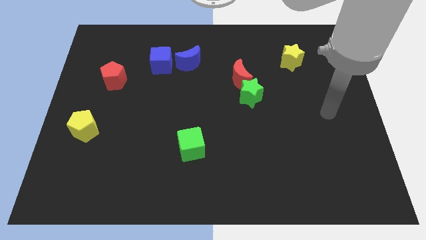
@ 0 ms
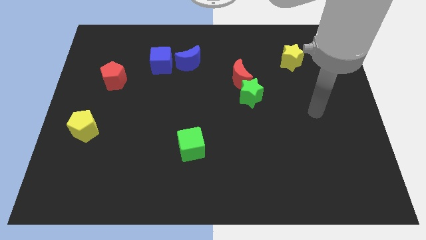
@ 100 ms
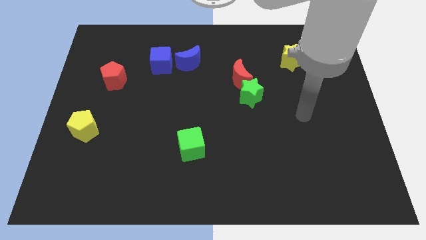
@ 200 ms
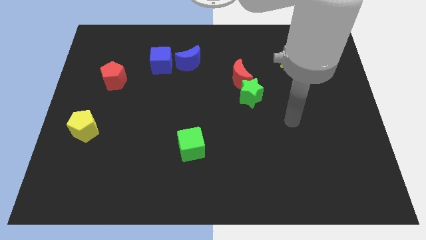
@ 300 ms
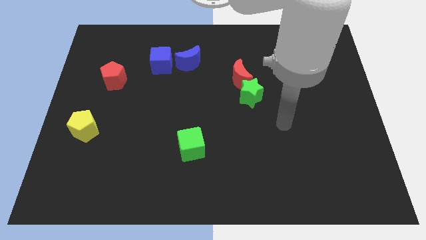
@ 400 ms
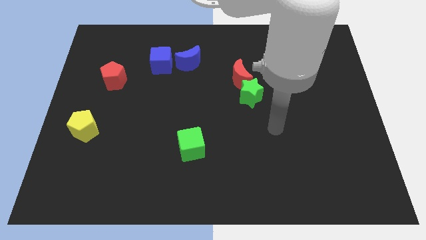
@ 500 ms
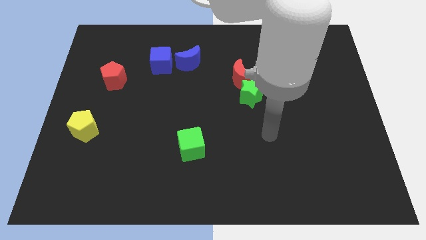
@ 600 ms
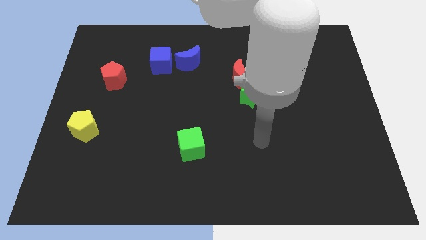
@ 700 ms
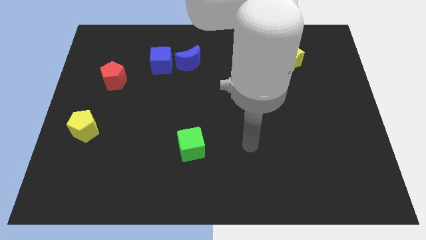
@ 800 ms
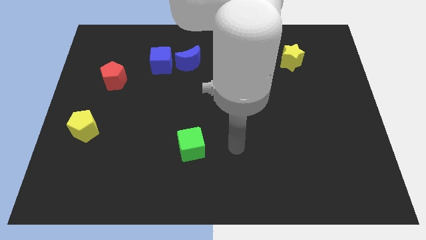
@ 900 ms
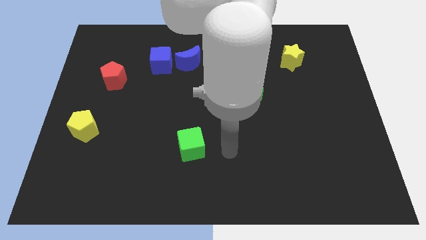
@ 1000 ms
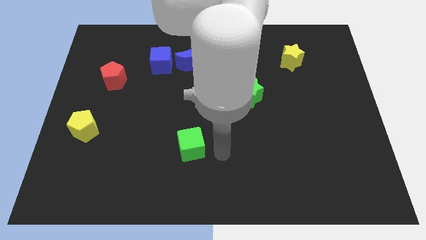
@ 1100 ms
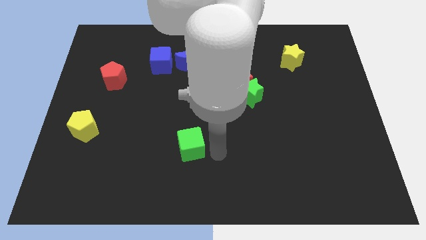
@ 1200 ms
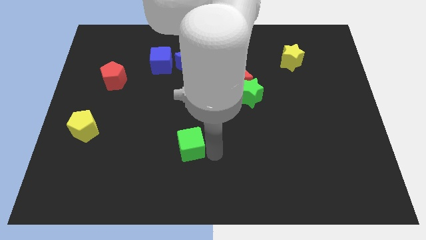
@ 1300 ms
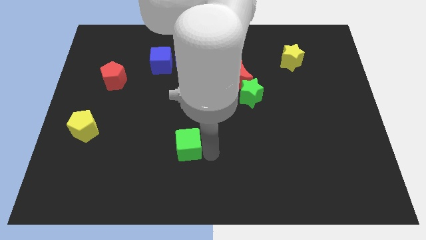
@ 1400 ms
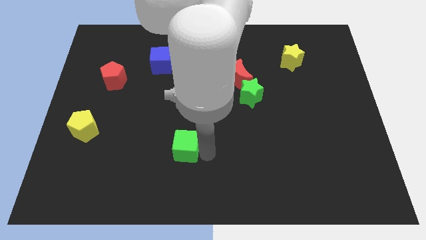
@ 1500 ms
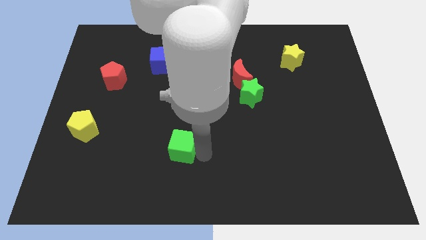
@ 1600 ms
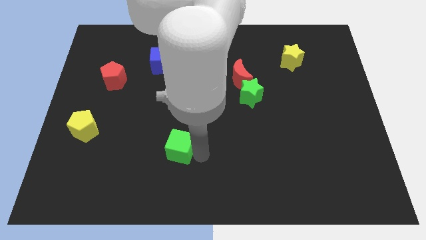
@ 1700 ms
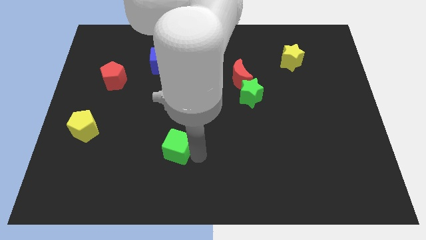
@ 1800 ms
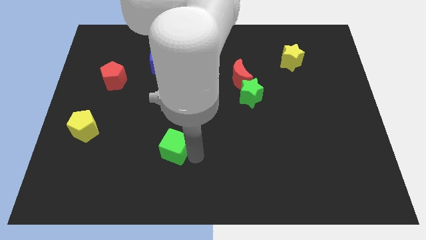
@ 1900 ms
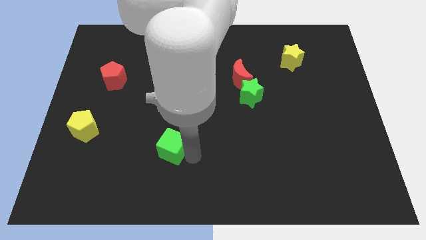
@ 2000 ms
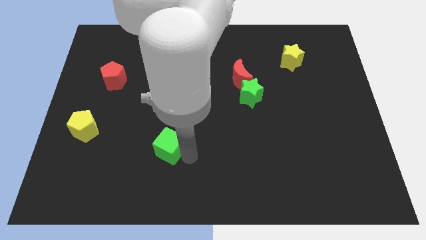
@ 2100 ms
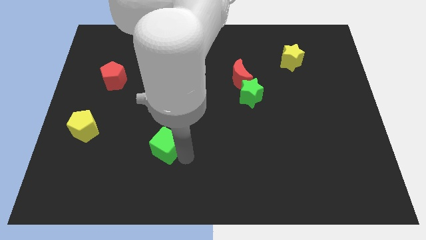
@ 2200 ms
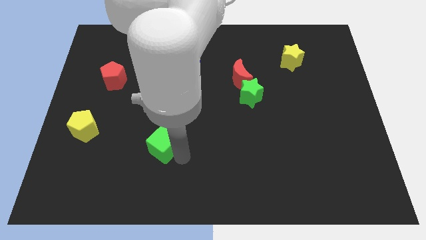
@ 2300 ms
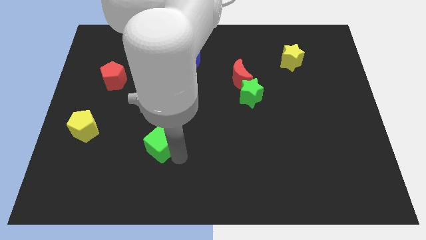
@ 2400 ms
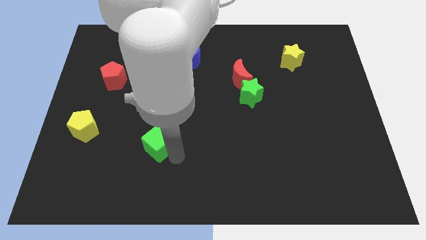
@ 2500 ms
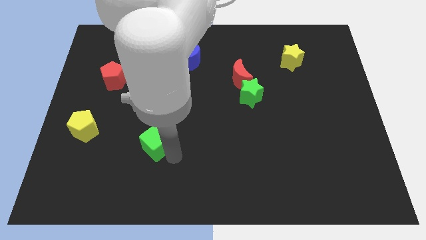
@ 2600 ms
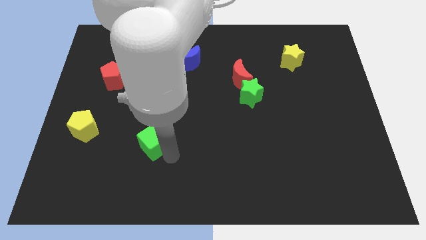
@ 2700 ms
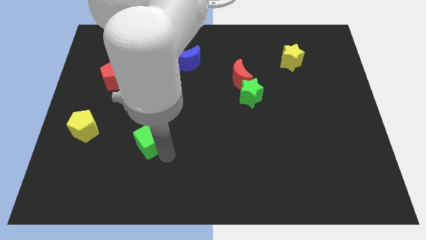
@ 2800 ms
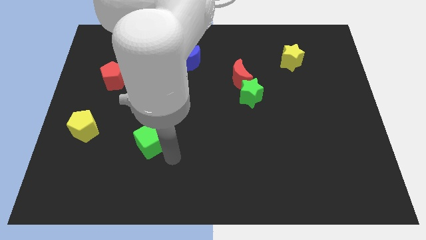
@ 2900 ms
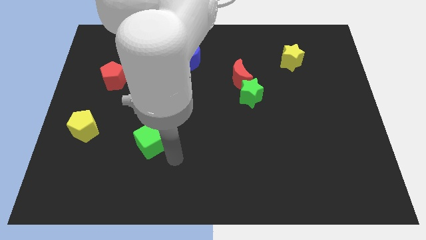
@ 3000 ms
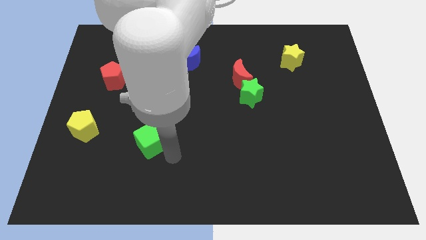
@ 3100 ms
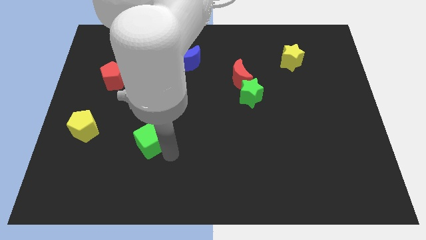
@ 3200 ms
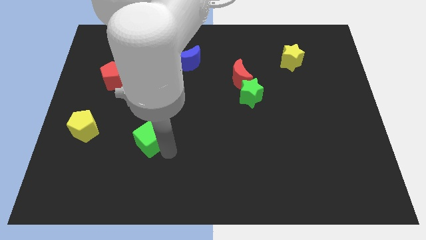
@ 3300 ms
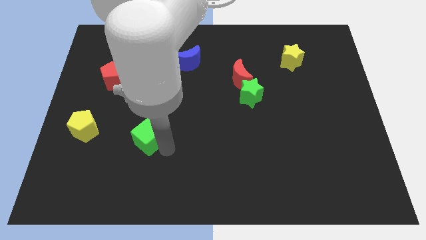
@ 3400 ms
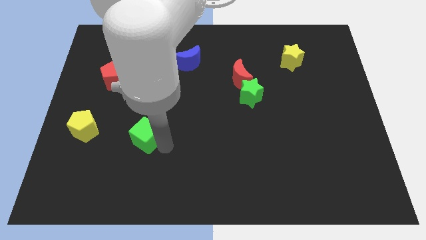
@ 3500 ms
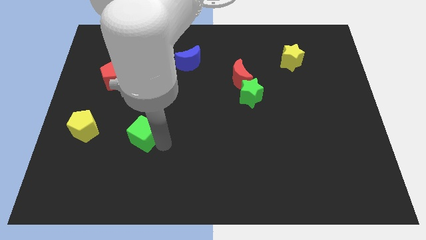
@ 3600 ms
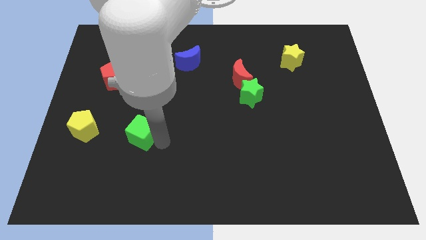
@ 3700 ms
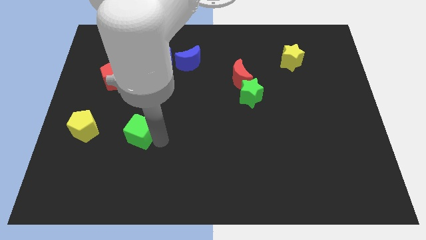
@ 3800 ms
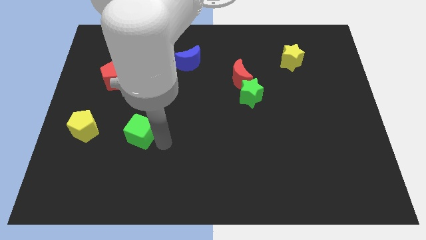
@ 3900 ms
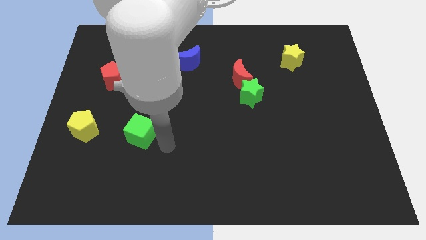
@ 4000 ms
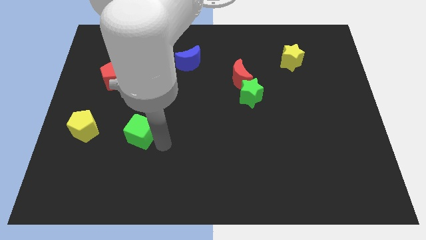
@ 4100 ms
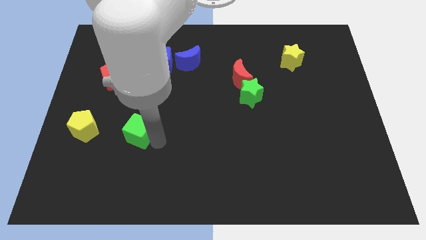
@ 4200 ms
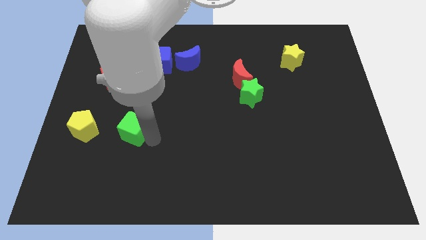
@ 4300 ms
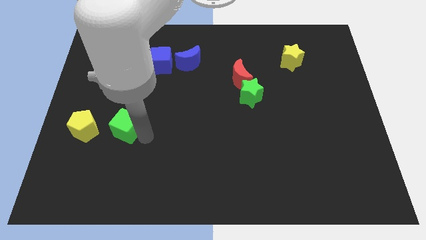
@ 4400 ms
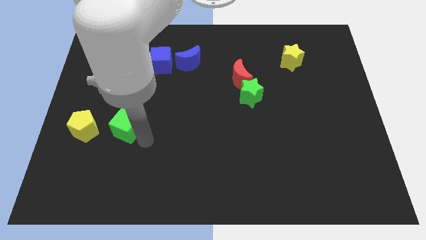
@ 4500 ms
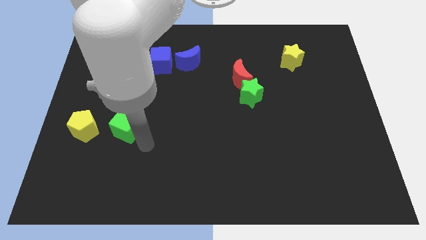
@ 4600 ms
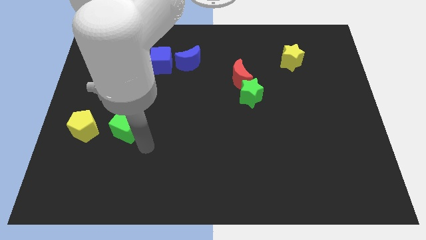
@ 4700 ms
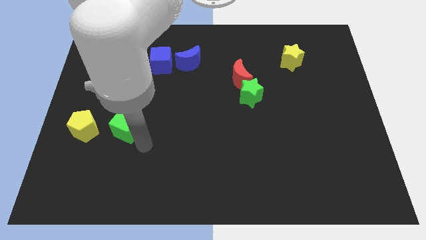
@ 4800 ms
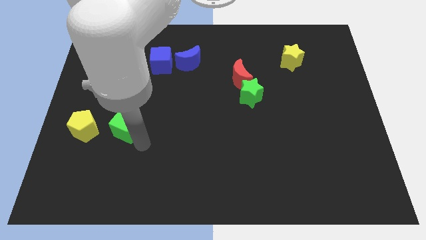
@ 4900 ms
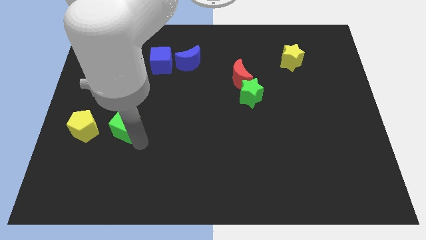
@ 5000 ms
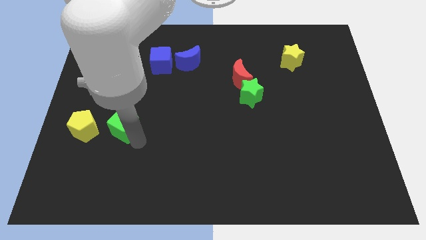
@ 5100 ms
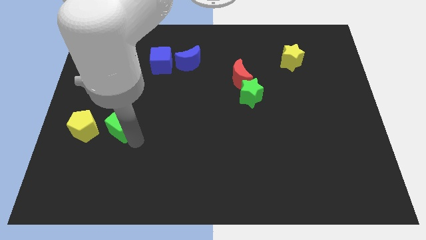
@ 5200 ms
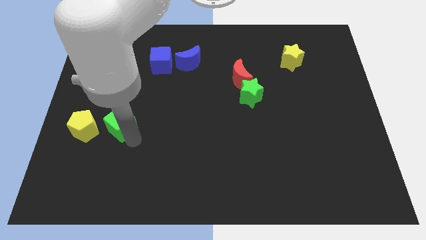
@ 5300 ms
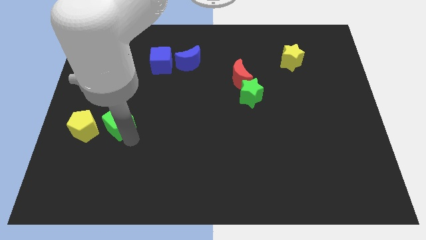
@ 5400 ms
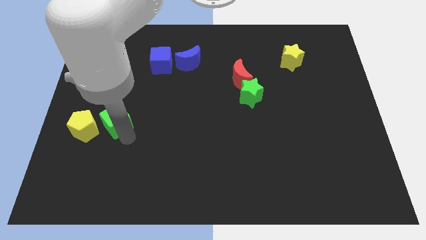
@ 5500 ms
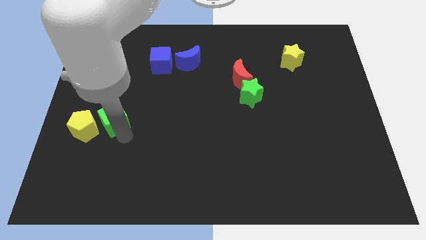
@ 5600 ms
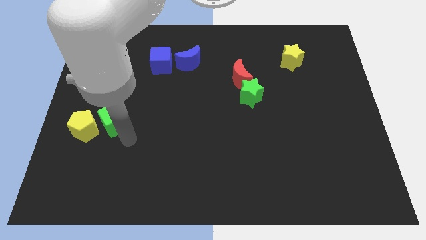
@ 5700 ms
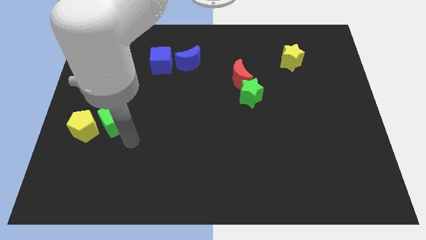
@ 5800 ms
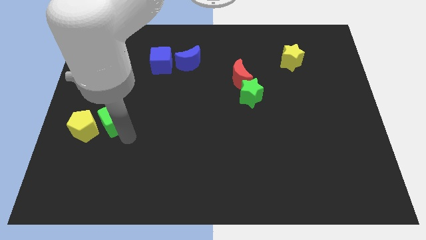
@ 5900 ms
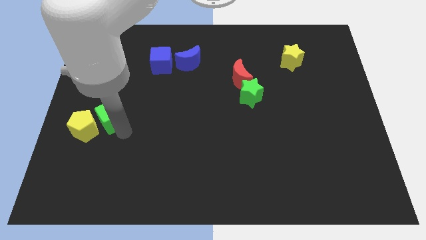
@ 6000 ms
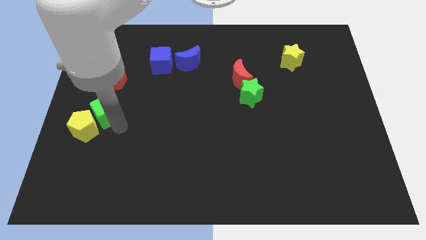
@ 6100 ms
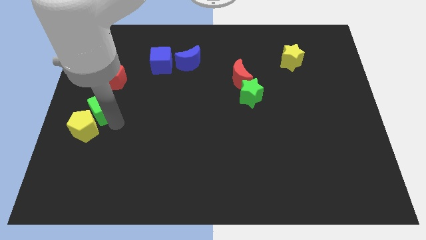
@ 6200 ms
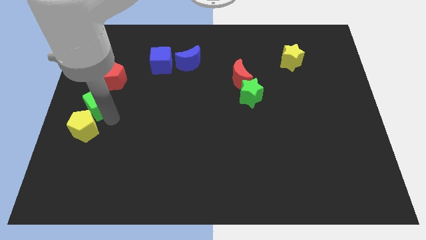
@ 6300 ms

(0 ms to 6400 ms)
move the green cube up and to the left diagonally

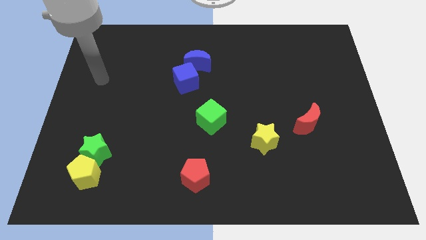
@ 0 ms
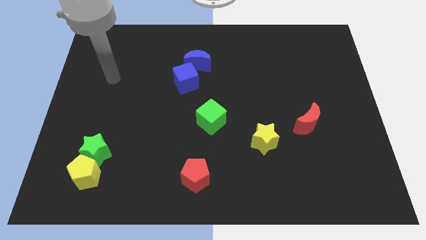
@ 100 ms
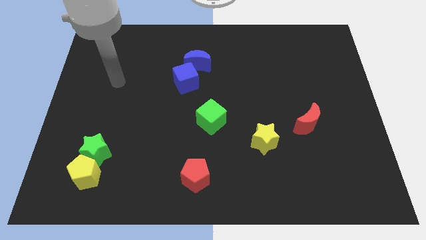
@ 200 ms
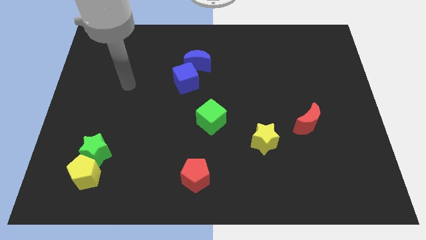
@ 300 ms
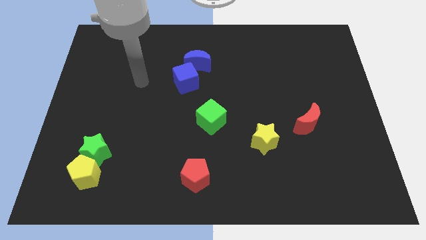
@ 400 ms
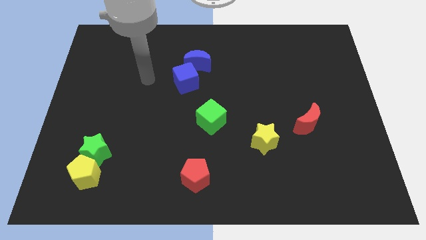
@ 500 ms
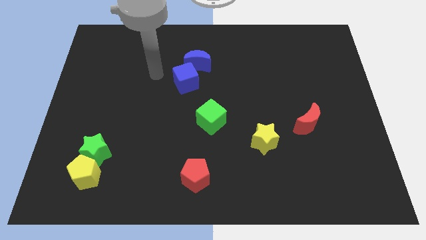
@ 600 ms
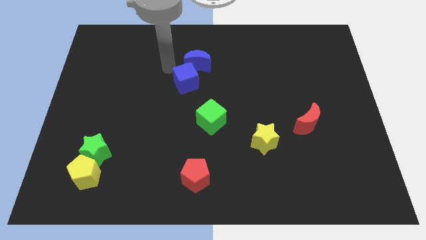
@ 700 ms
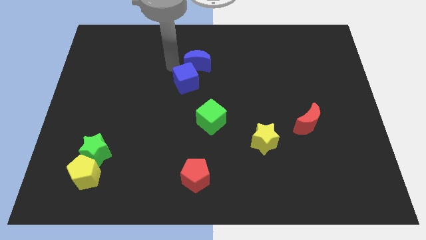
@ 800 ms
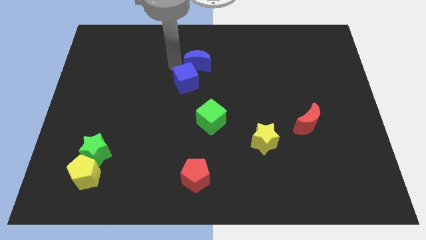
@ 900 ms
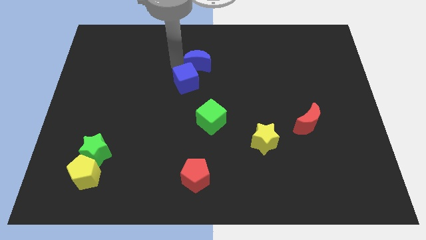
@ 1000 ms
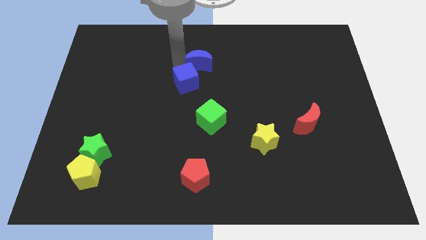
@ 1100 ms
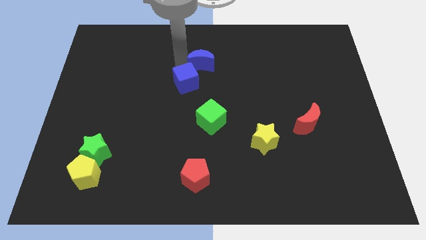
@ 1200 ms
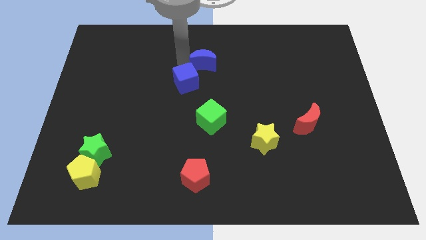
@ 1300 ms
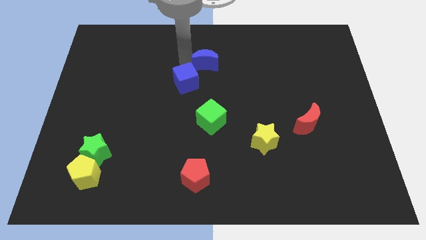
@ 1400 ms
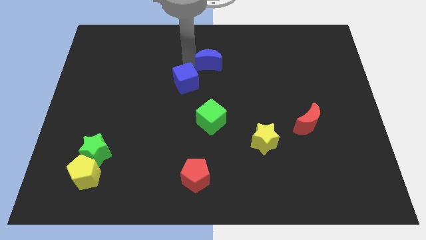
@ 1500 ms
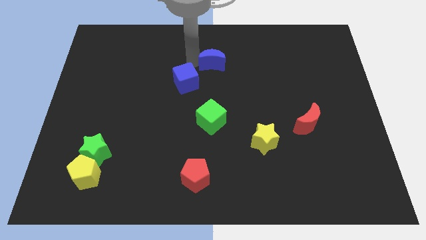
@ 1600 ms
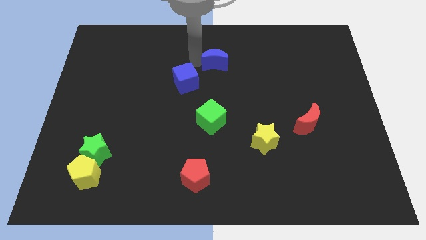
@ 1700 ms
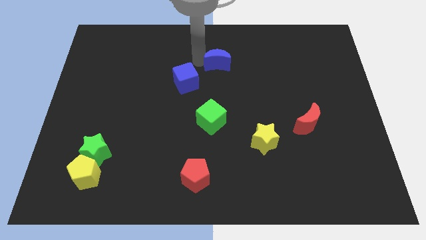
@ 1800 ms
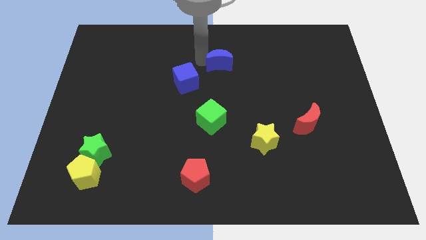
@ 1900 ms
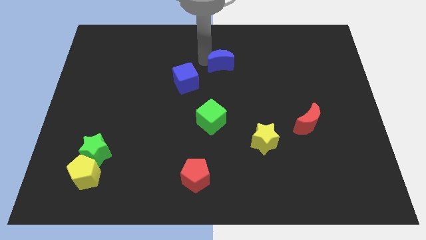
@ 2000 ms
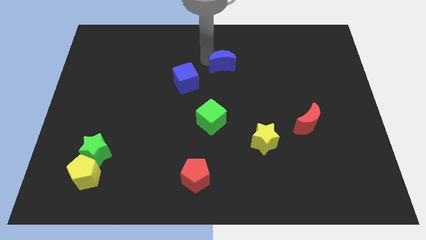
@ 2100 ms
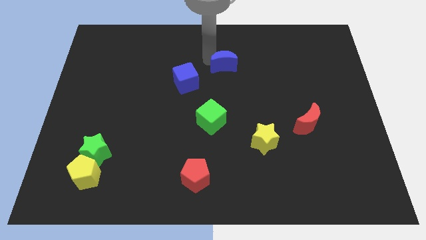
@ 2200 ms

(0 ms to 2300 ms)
slide the blue moon a little to the right
